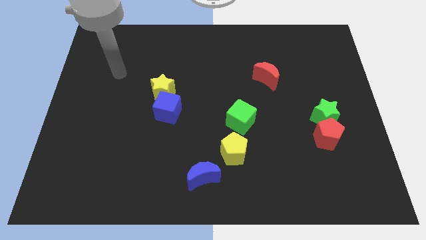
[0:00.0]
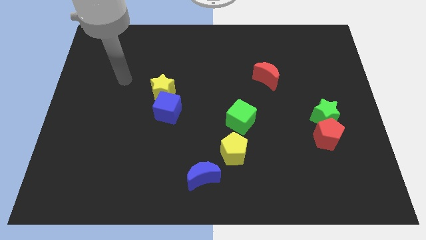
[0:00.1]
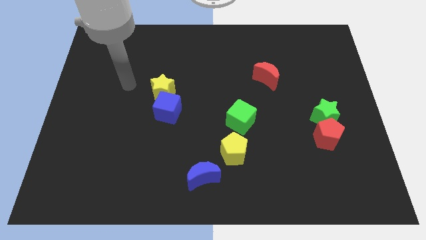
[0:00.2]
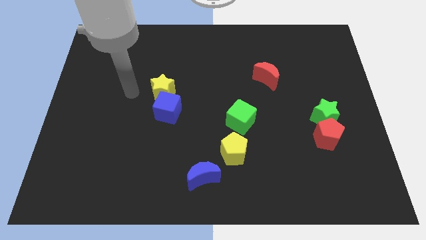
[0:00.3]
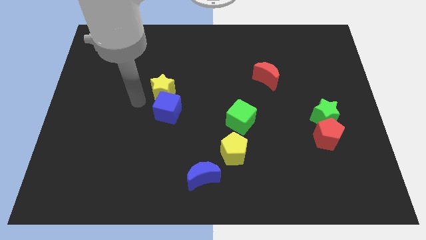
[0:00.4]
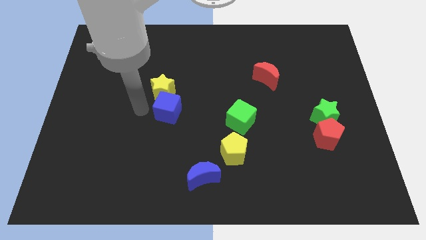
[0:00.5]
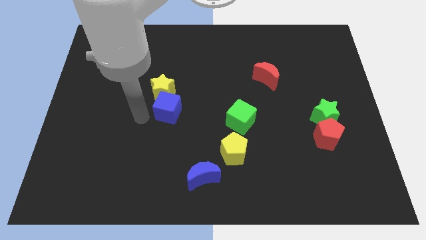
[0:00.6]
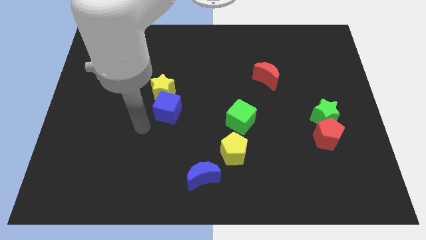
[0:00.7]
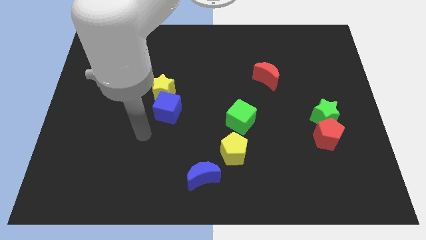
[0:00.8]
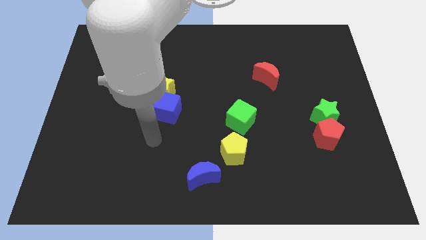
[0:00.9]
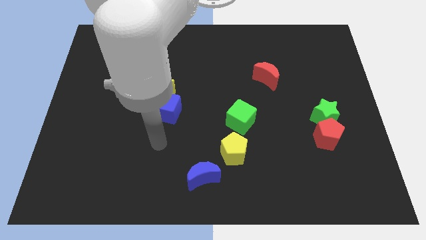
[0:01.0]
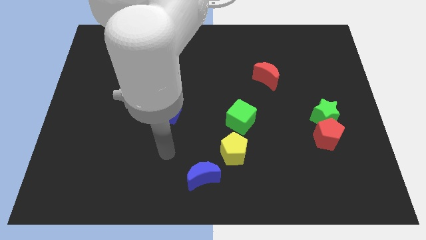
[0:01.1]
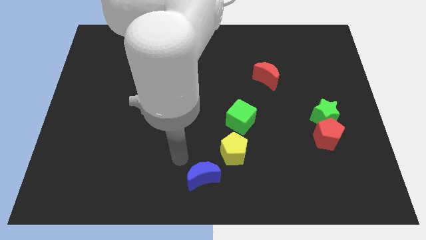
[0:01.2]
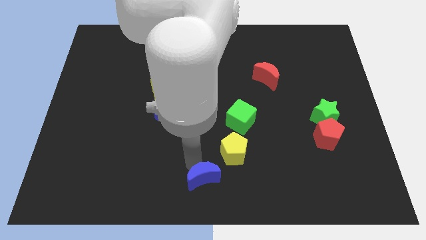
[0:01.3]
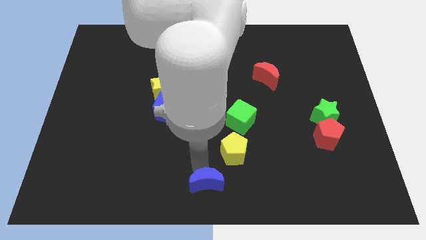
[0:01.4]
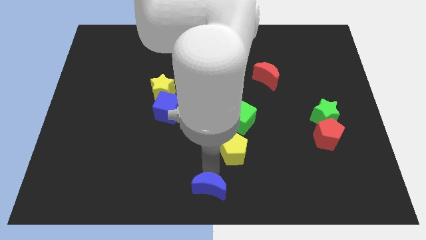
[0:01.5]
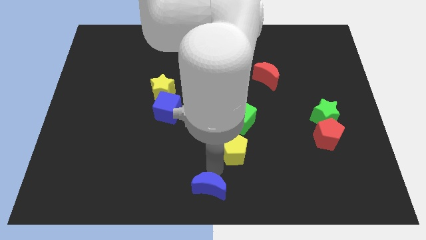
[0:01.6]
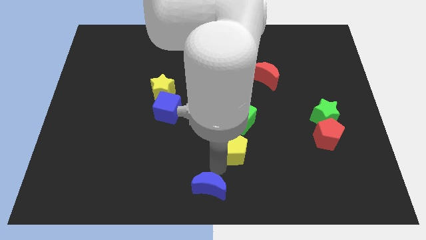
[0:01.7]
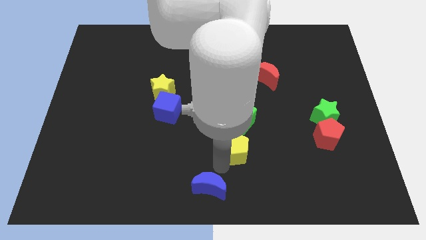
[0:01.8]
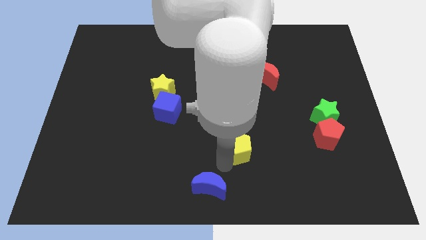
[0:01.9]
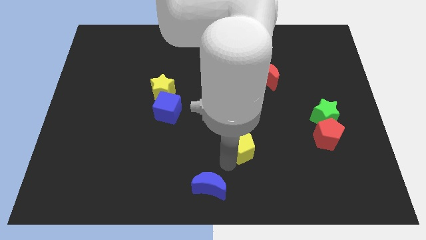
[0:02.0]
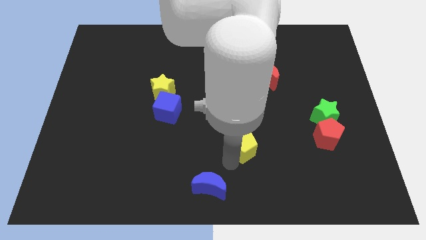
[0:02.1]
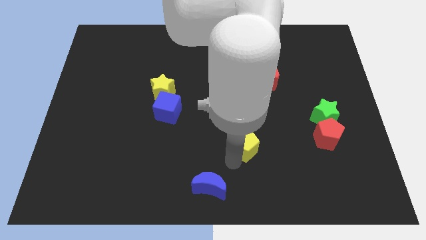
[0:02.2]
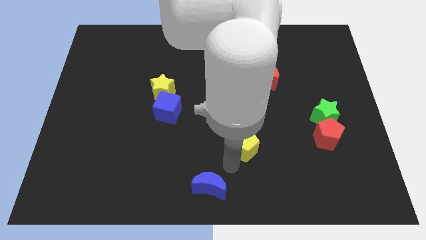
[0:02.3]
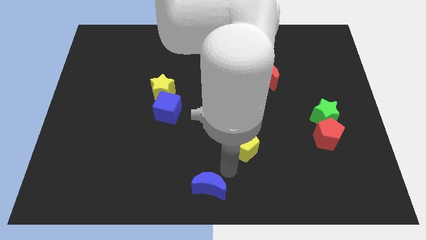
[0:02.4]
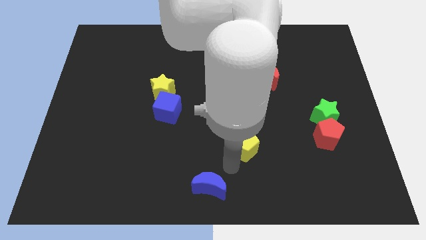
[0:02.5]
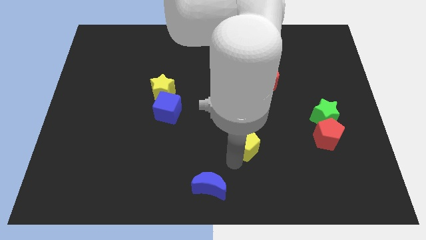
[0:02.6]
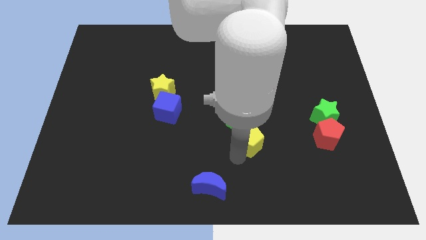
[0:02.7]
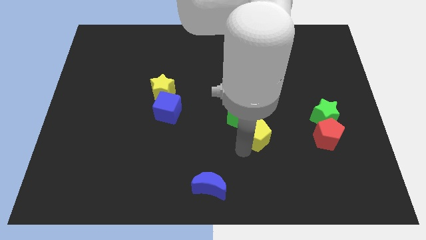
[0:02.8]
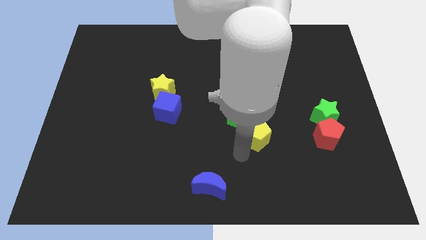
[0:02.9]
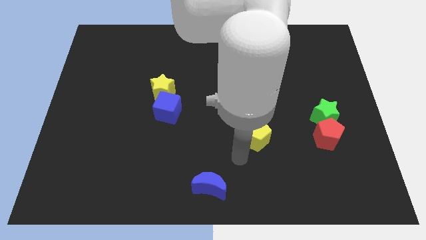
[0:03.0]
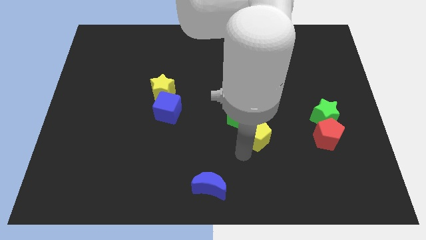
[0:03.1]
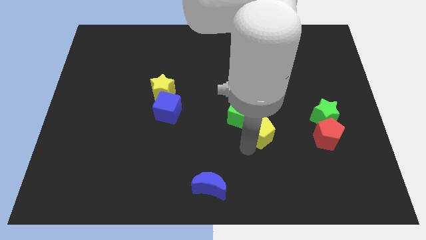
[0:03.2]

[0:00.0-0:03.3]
slightly push the yellow pentagon diagonally up and to the right

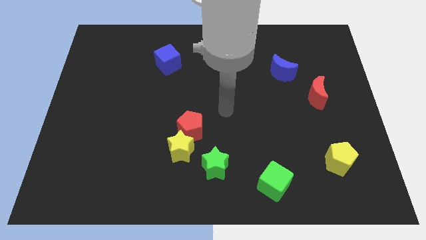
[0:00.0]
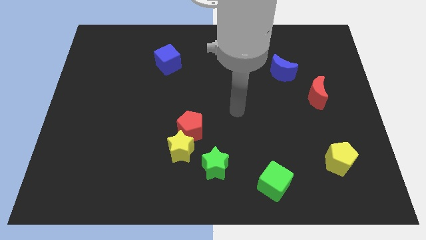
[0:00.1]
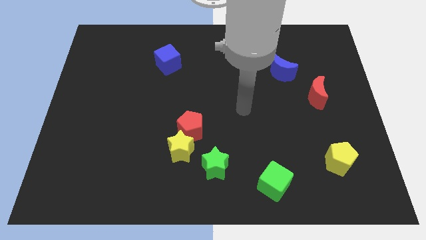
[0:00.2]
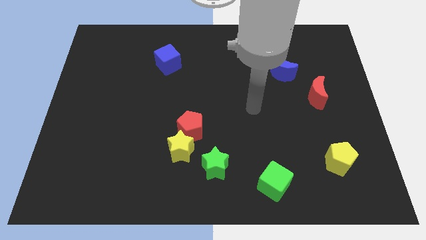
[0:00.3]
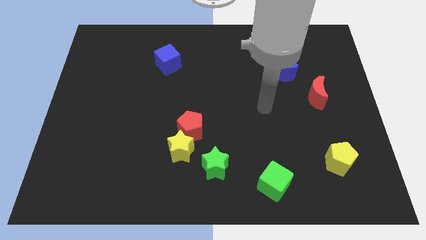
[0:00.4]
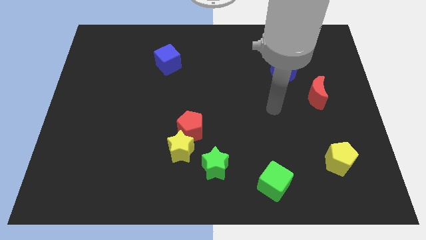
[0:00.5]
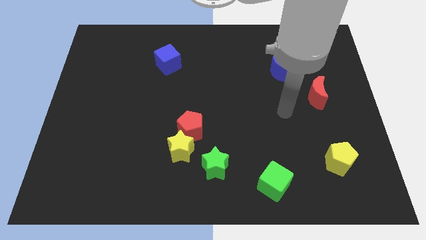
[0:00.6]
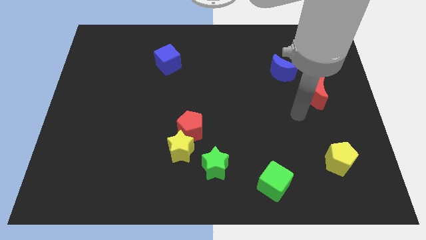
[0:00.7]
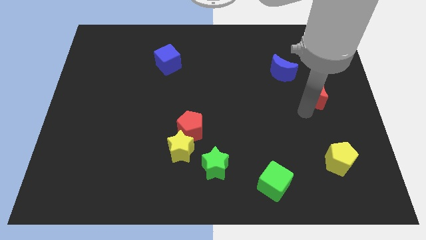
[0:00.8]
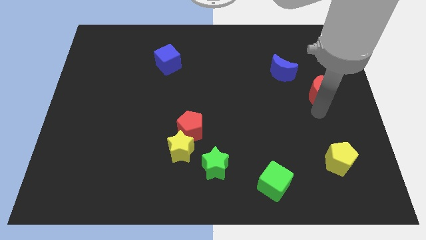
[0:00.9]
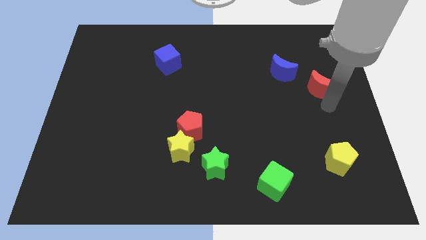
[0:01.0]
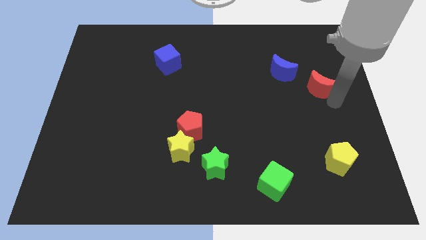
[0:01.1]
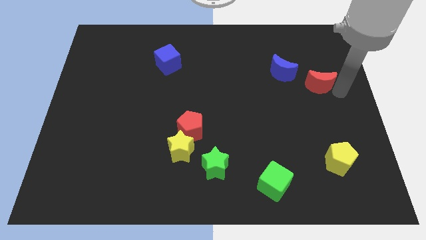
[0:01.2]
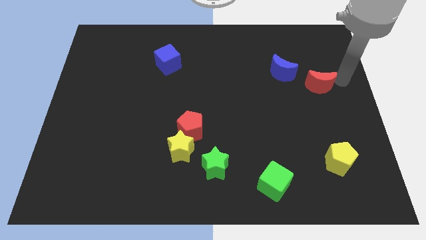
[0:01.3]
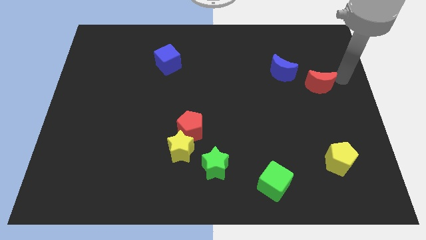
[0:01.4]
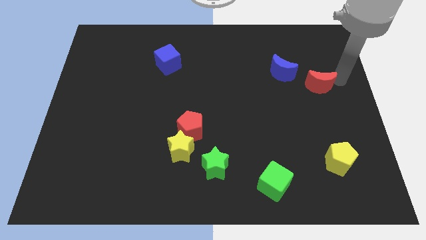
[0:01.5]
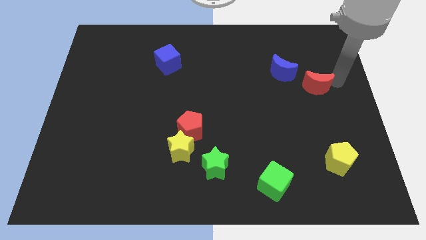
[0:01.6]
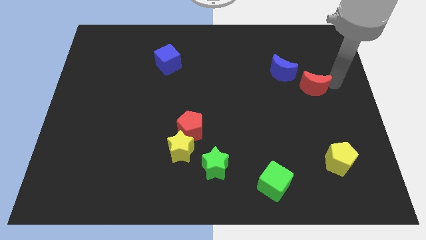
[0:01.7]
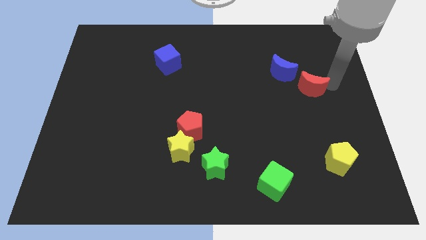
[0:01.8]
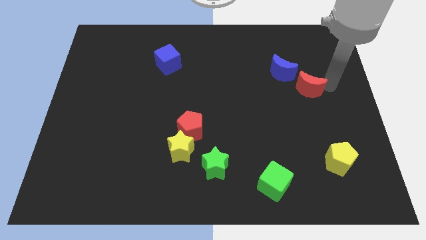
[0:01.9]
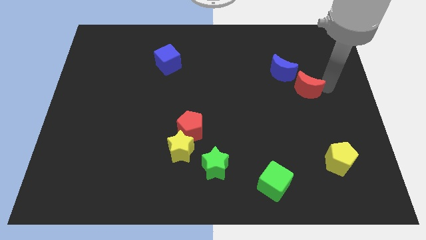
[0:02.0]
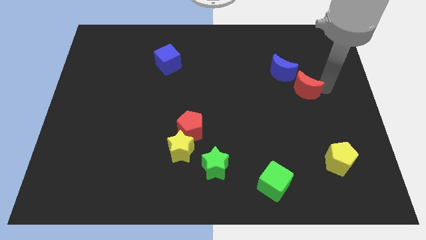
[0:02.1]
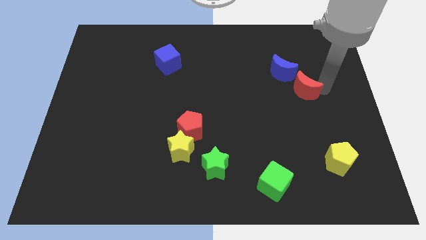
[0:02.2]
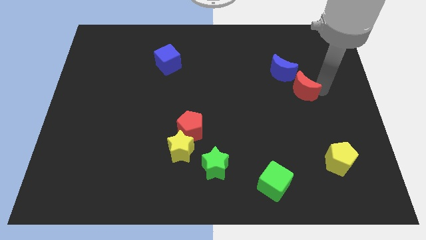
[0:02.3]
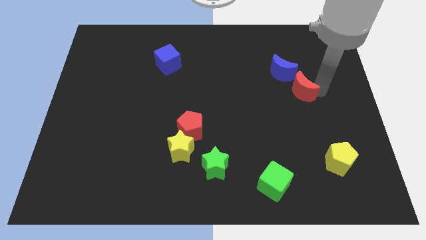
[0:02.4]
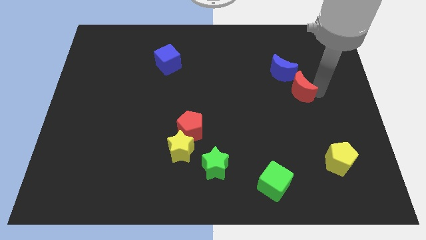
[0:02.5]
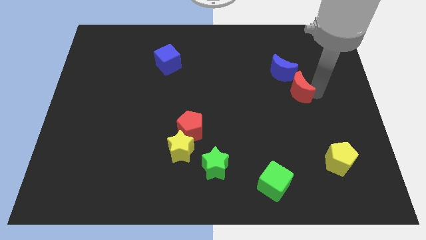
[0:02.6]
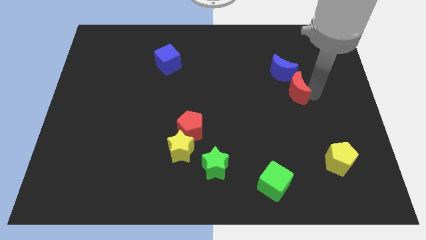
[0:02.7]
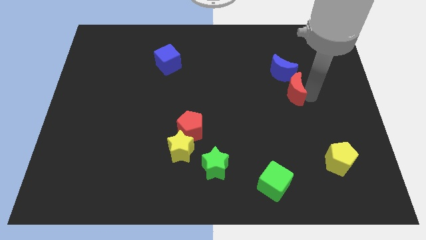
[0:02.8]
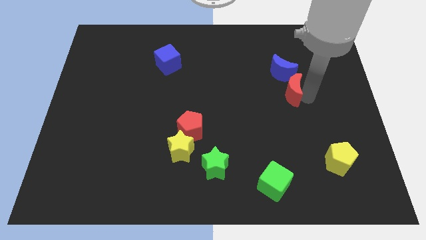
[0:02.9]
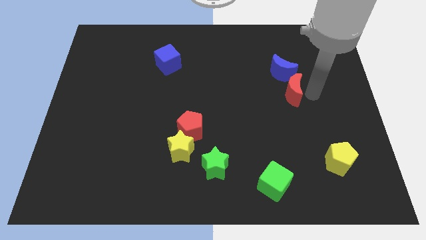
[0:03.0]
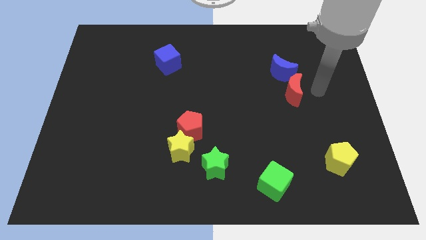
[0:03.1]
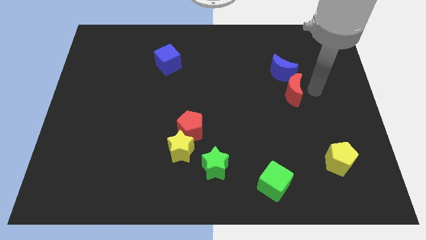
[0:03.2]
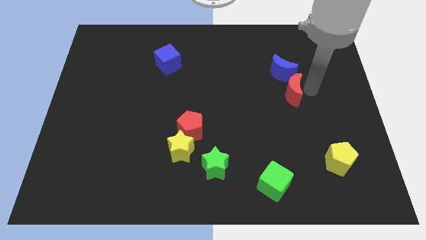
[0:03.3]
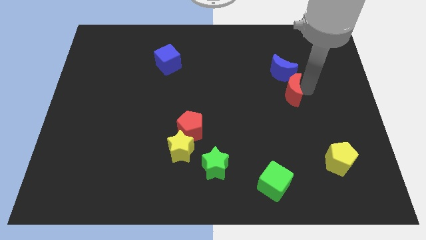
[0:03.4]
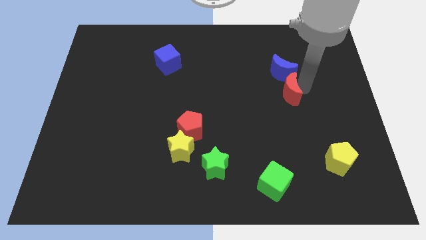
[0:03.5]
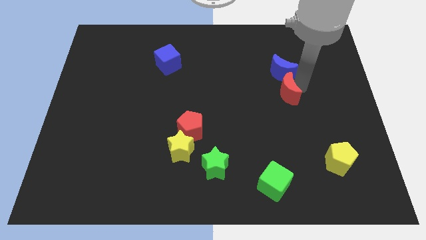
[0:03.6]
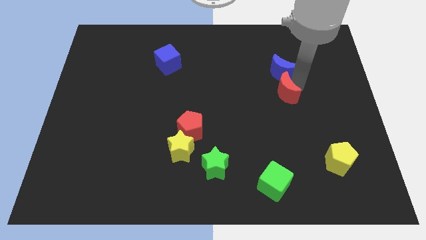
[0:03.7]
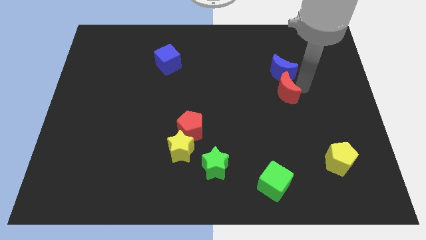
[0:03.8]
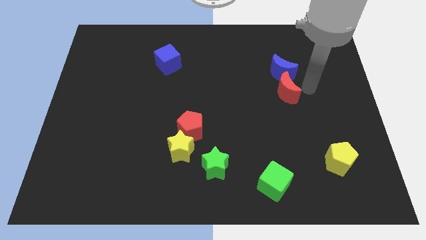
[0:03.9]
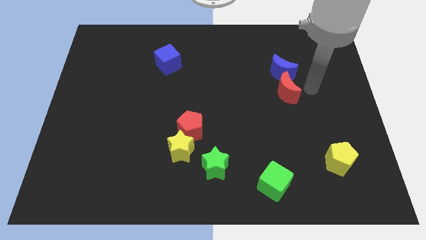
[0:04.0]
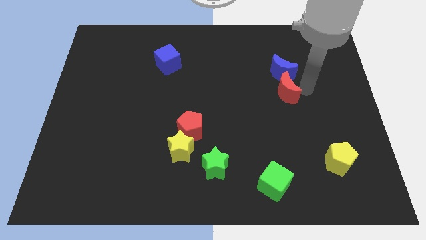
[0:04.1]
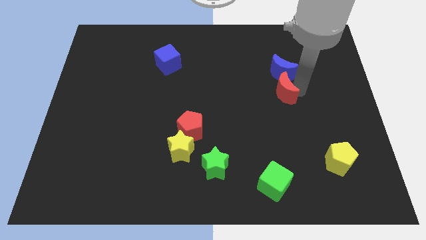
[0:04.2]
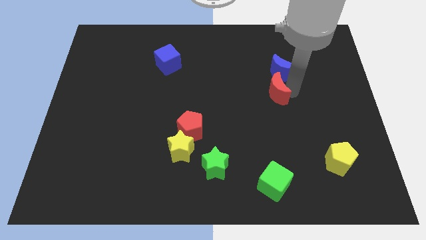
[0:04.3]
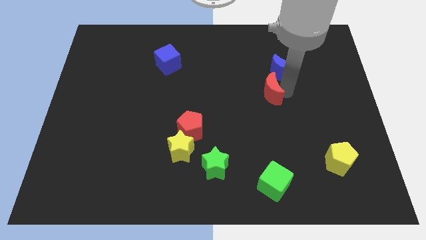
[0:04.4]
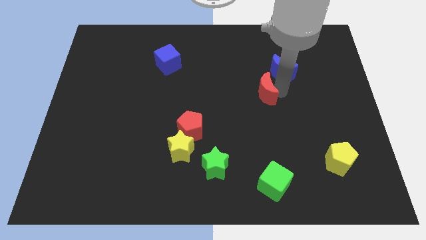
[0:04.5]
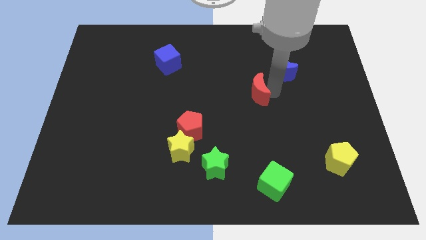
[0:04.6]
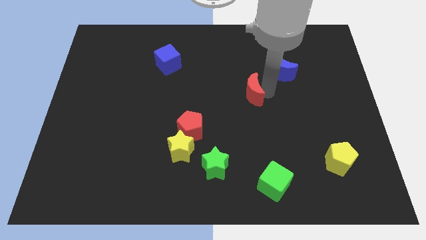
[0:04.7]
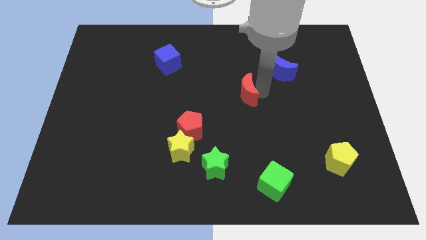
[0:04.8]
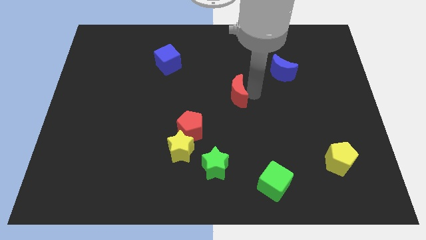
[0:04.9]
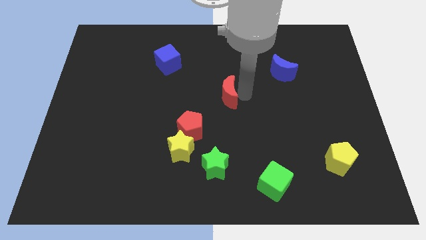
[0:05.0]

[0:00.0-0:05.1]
slide the red moon to the left
